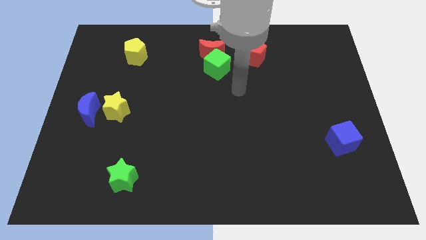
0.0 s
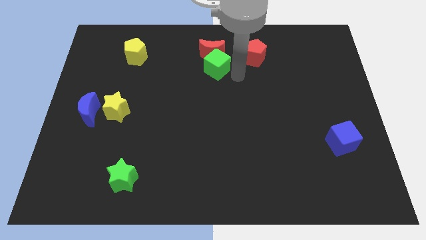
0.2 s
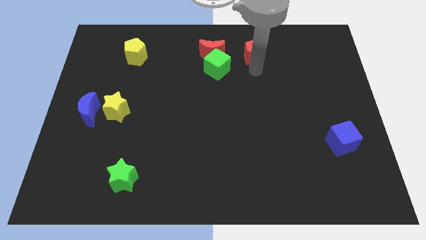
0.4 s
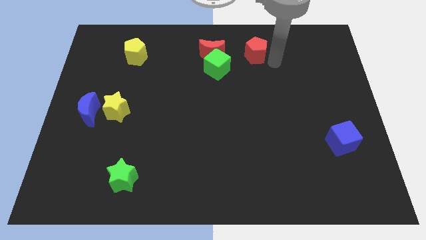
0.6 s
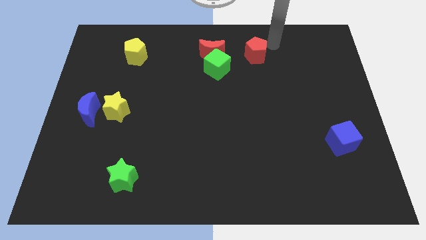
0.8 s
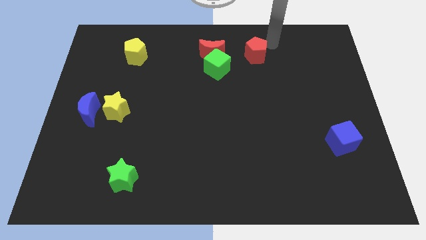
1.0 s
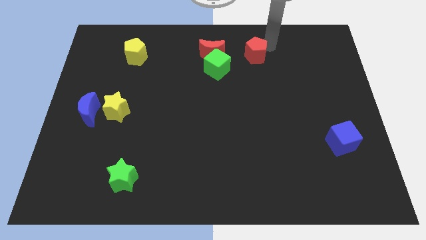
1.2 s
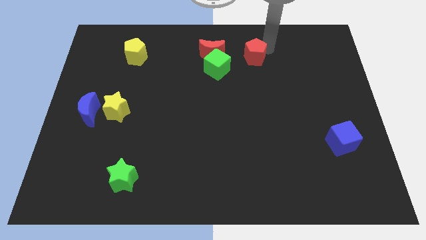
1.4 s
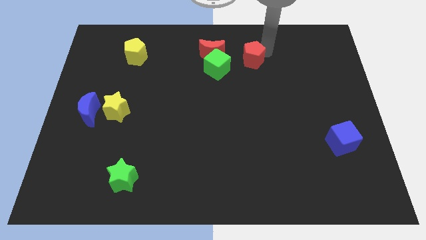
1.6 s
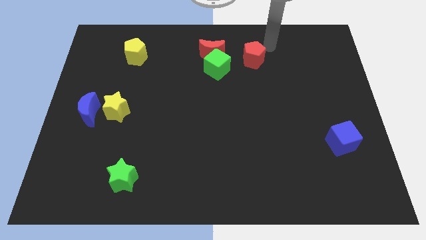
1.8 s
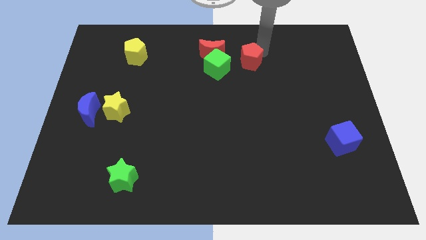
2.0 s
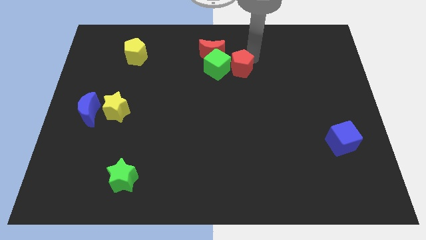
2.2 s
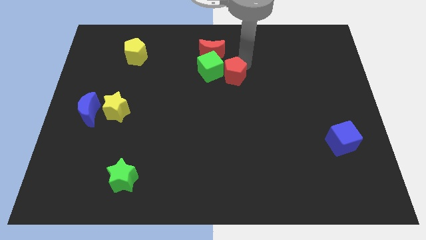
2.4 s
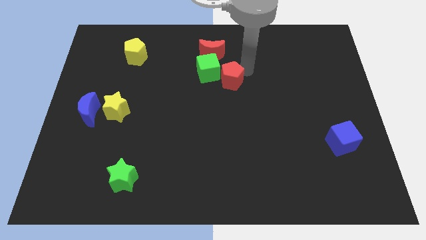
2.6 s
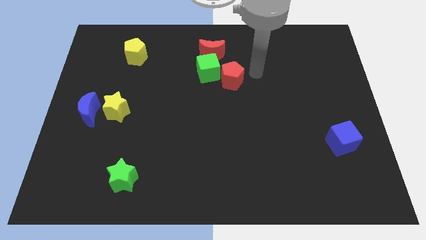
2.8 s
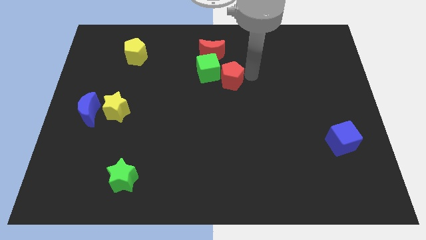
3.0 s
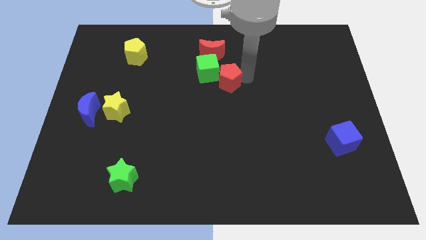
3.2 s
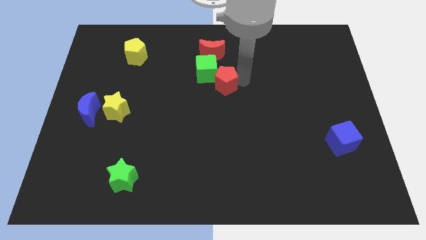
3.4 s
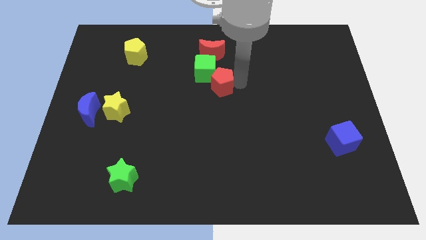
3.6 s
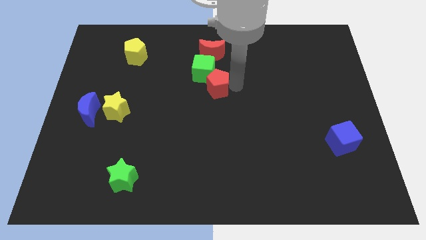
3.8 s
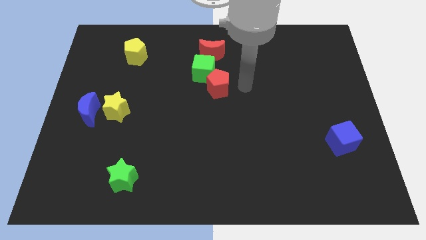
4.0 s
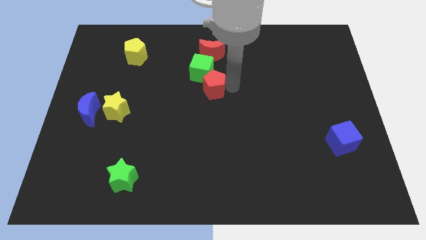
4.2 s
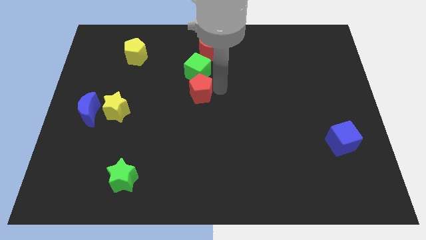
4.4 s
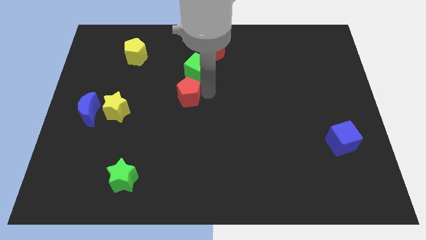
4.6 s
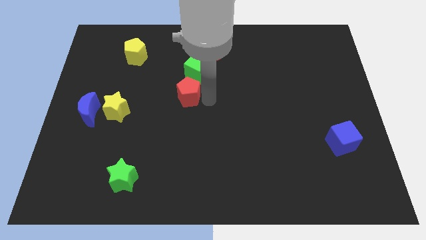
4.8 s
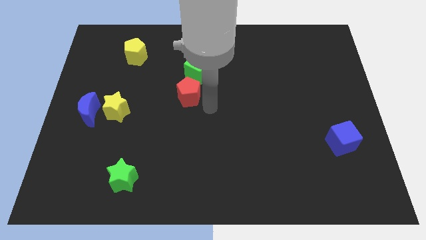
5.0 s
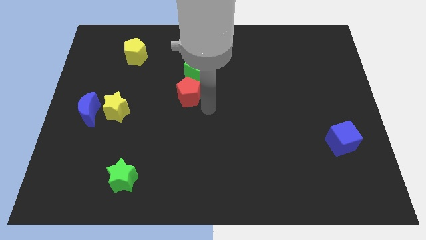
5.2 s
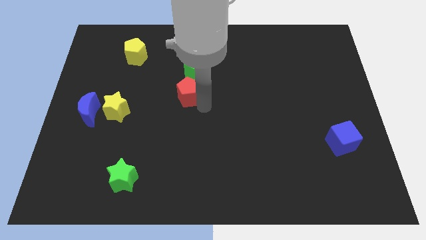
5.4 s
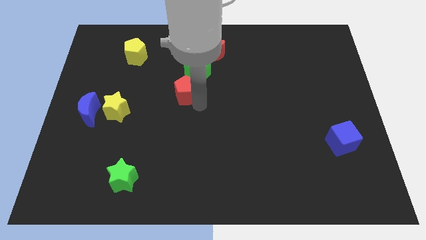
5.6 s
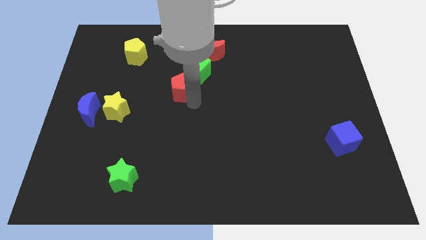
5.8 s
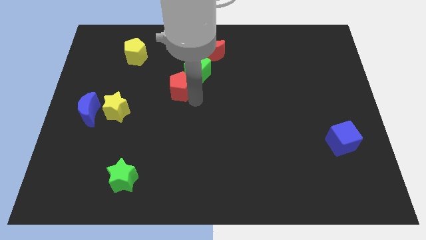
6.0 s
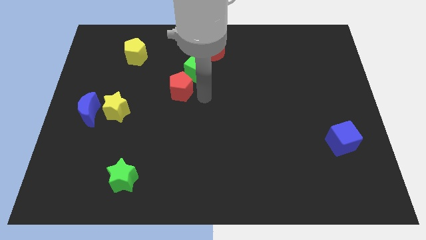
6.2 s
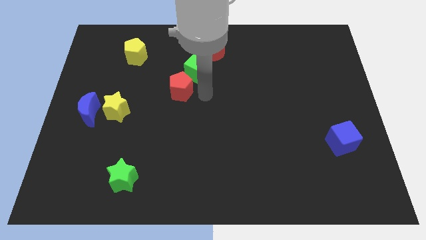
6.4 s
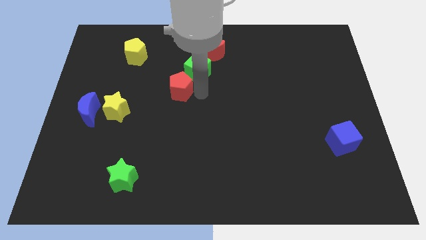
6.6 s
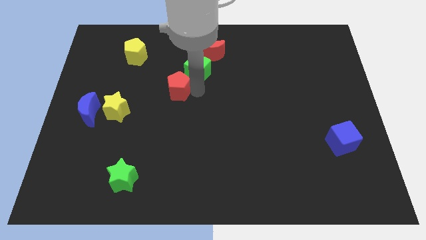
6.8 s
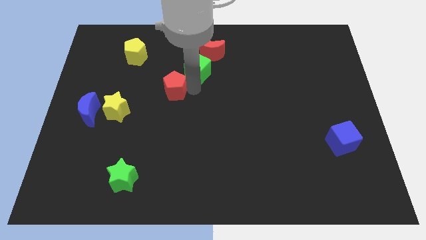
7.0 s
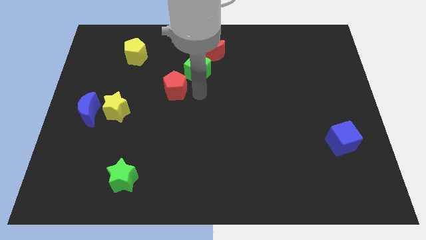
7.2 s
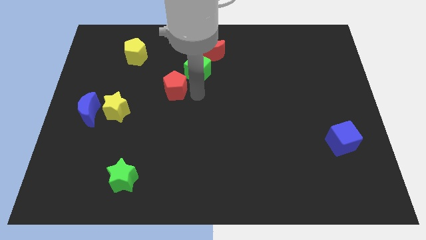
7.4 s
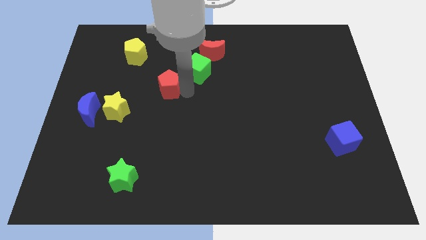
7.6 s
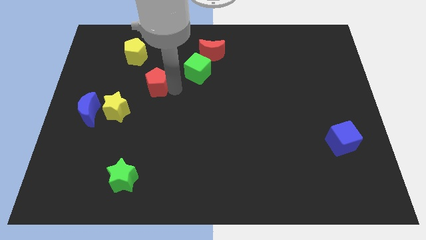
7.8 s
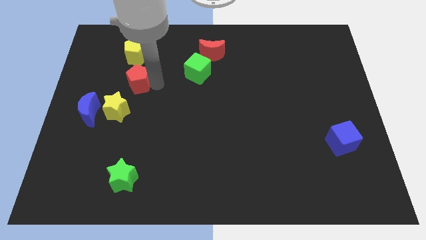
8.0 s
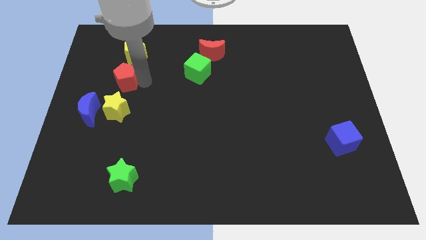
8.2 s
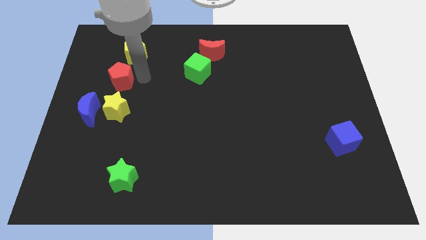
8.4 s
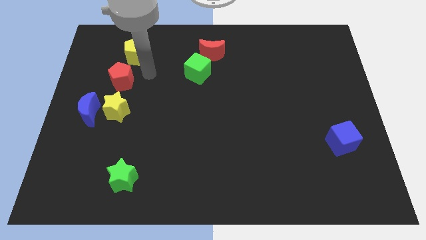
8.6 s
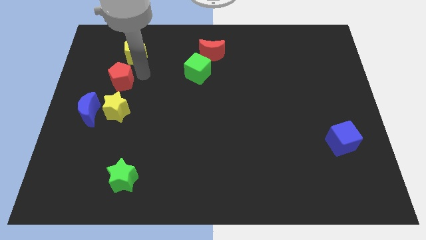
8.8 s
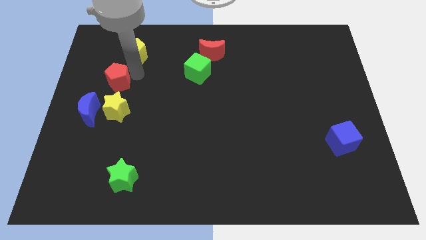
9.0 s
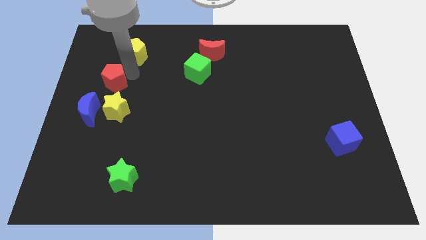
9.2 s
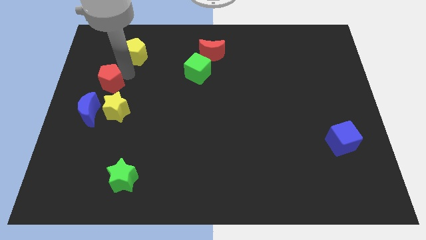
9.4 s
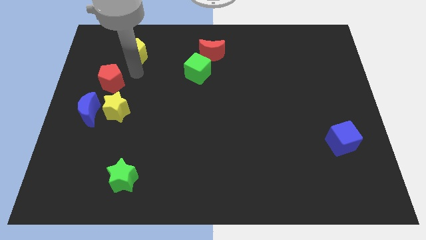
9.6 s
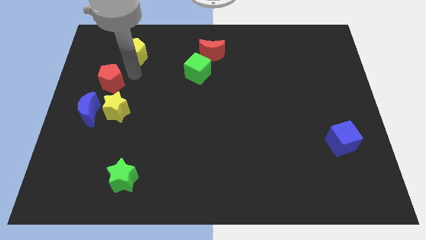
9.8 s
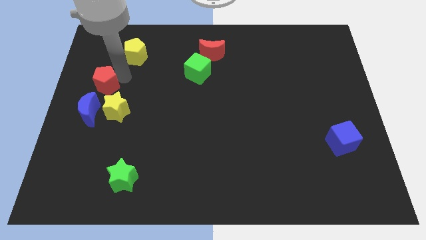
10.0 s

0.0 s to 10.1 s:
put the red pentagon to the left side

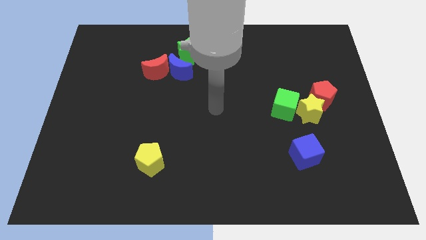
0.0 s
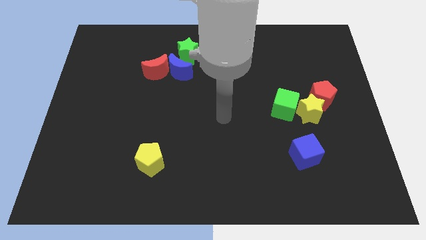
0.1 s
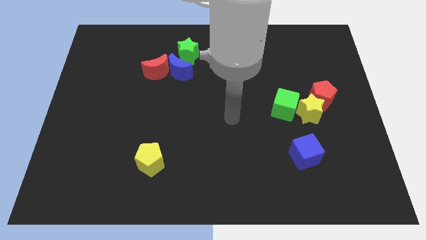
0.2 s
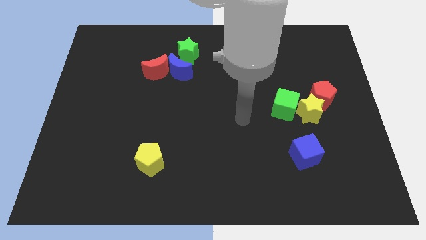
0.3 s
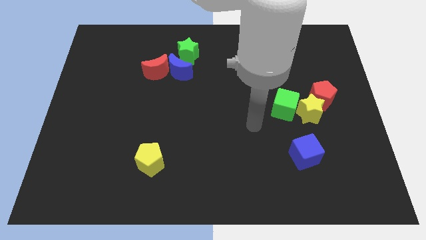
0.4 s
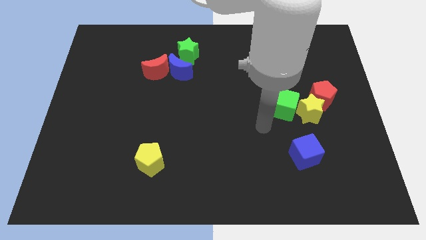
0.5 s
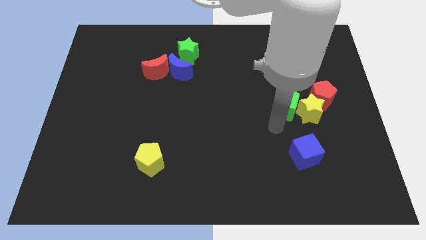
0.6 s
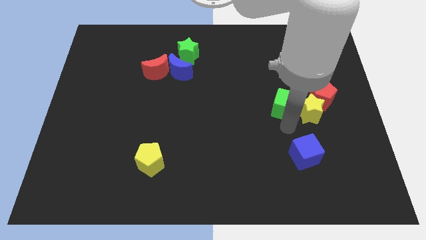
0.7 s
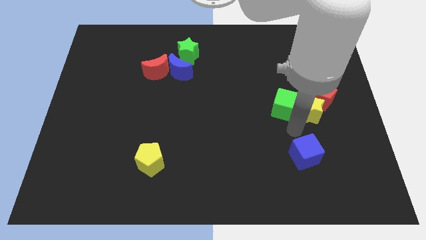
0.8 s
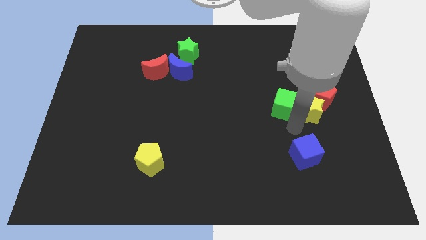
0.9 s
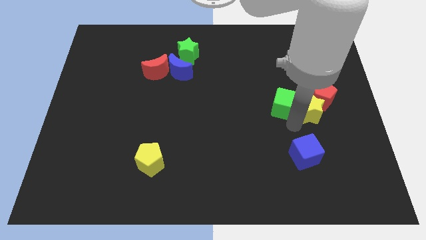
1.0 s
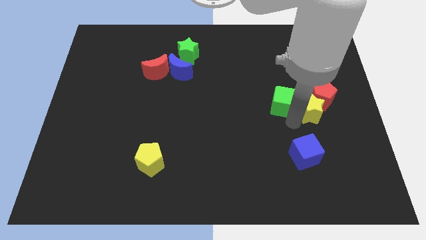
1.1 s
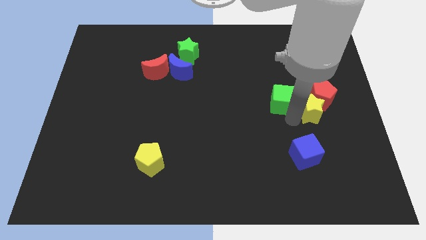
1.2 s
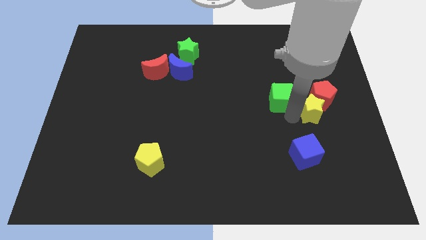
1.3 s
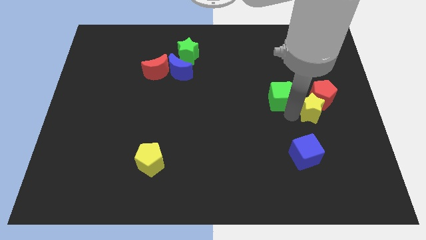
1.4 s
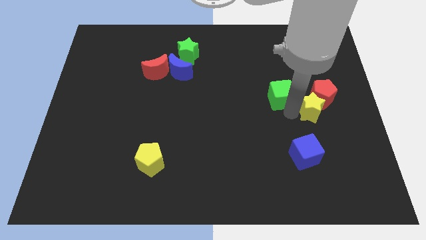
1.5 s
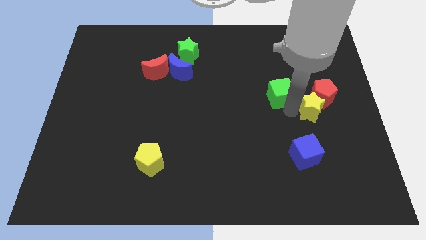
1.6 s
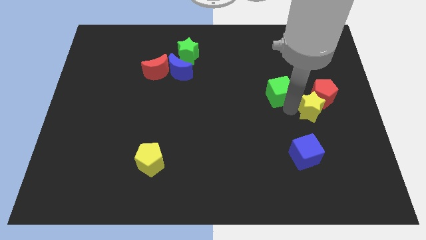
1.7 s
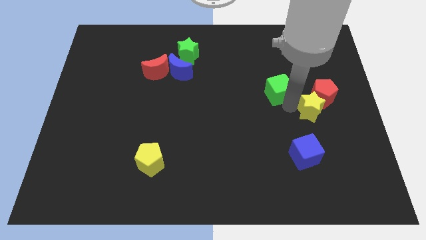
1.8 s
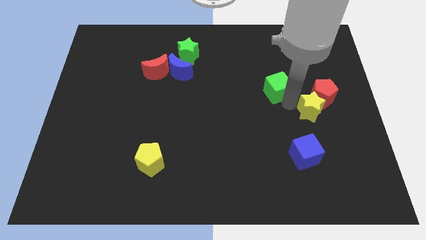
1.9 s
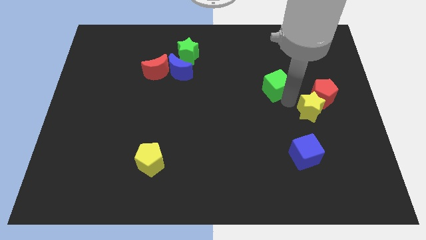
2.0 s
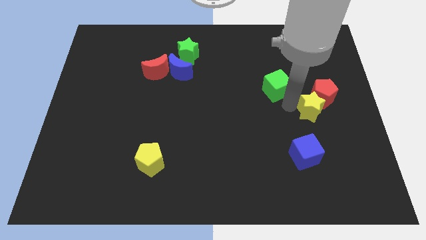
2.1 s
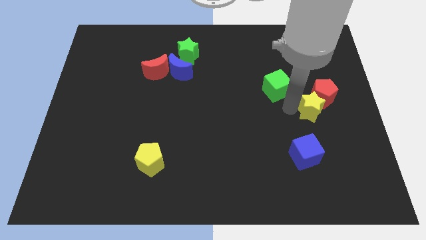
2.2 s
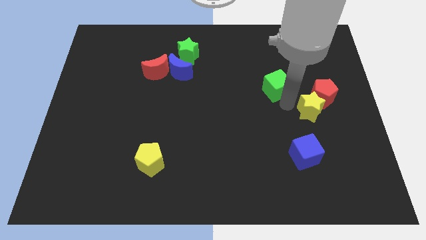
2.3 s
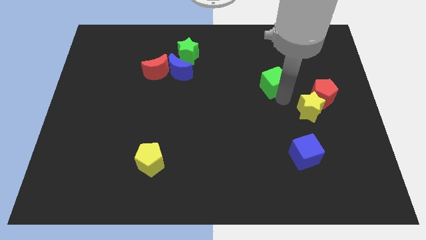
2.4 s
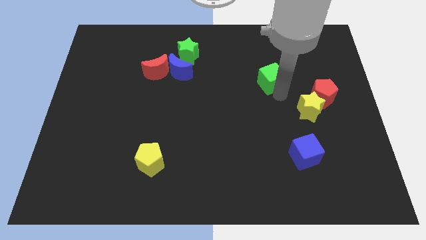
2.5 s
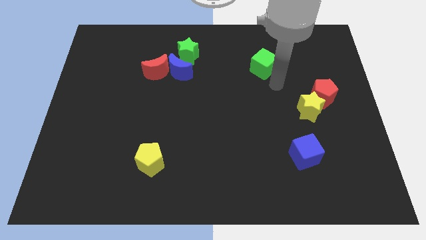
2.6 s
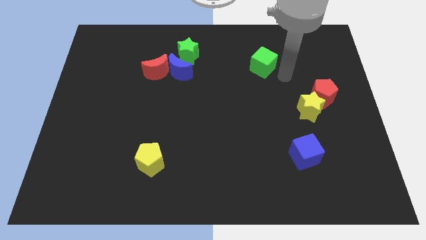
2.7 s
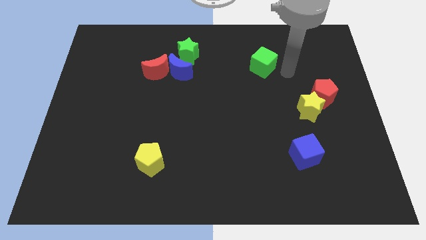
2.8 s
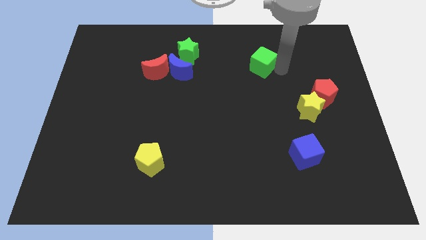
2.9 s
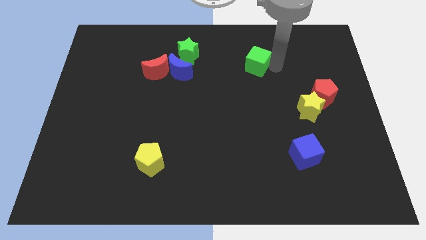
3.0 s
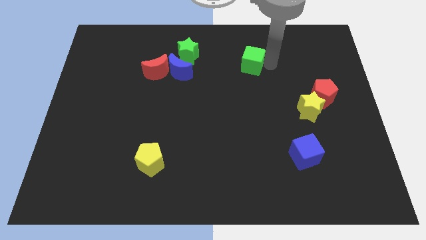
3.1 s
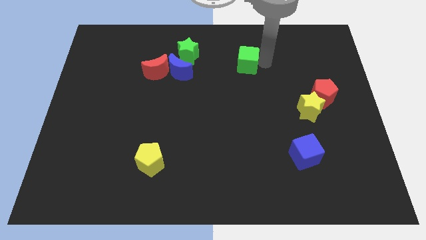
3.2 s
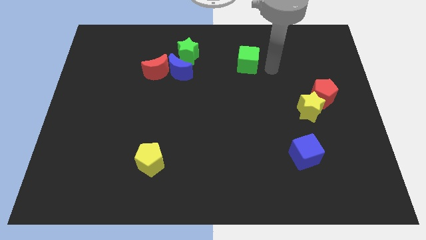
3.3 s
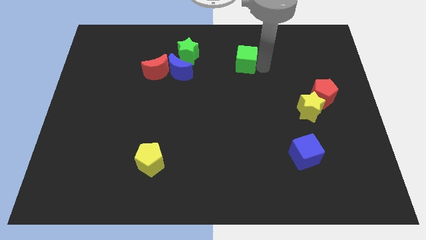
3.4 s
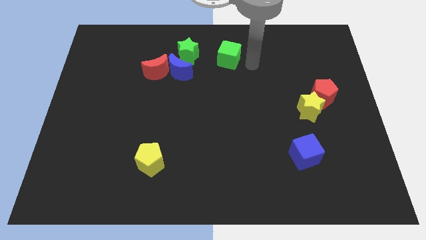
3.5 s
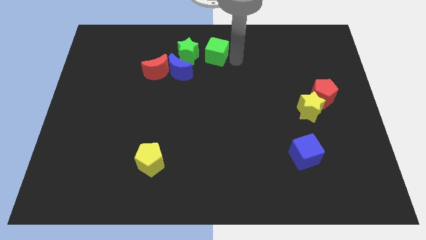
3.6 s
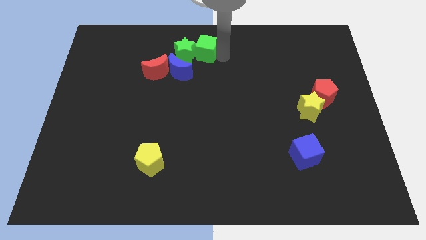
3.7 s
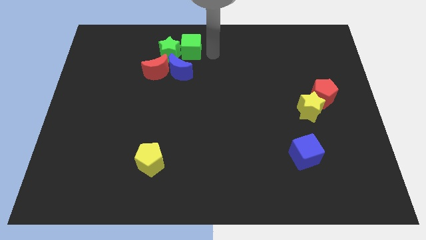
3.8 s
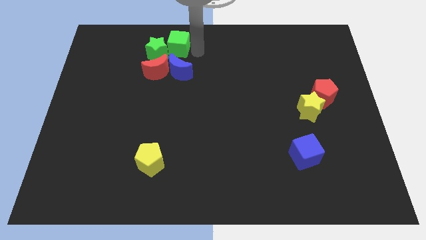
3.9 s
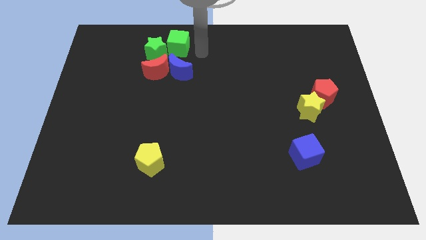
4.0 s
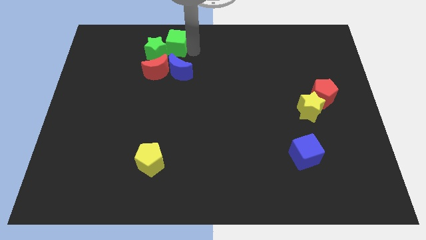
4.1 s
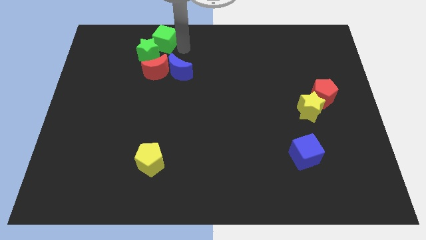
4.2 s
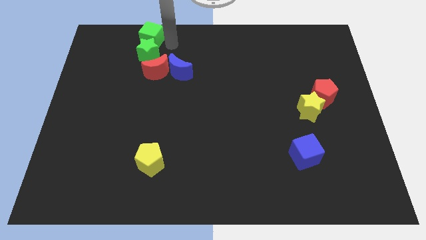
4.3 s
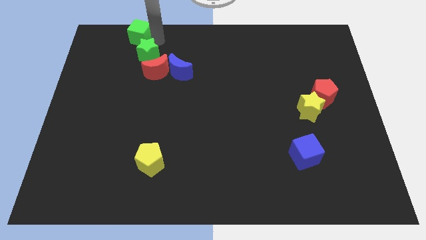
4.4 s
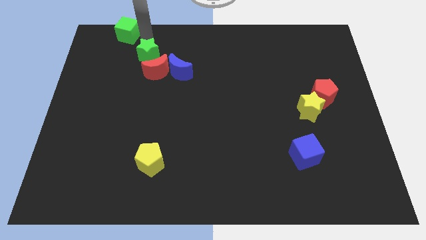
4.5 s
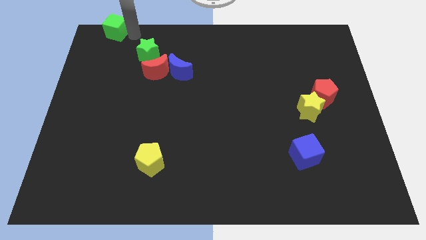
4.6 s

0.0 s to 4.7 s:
slide the green cube to the top left corner
